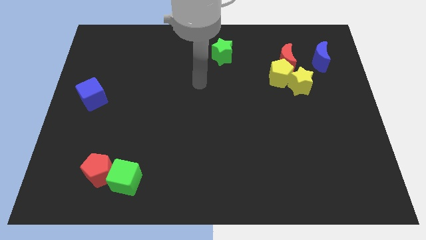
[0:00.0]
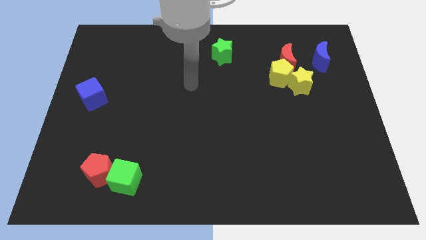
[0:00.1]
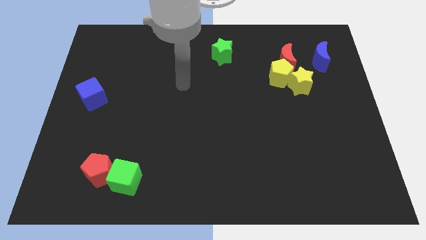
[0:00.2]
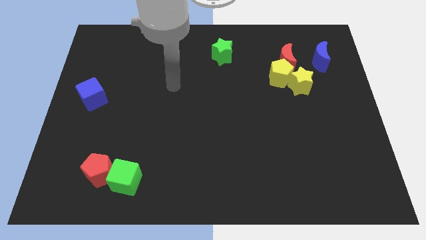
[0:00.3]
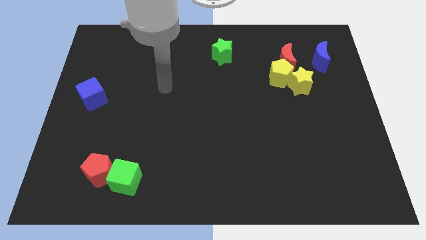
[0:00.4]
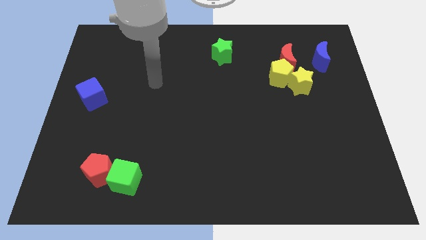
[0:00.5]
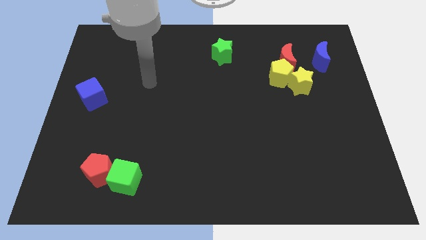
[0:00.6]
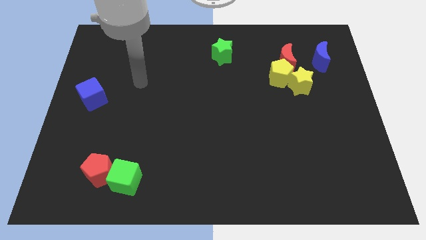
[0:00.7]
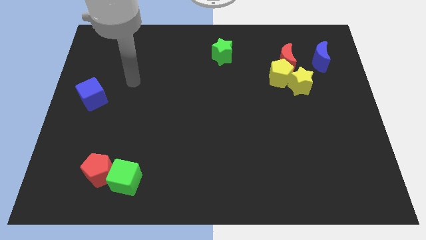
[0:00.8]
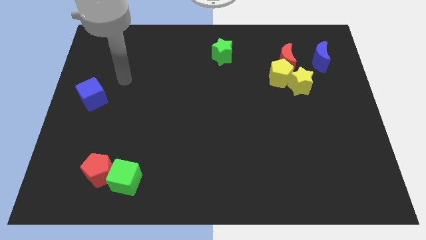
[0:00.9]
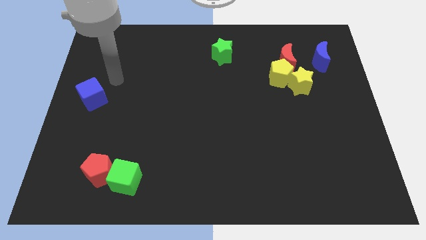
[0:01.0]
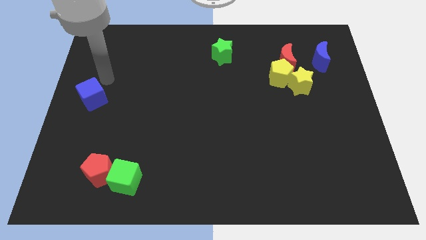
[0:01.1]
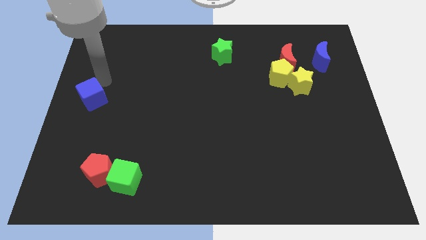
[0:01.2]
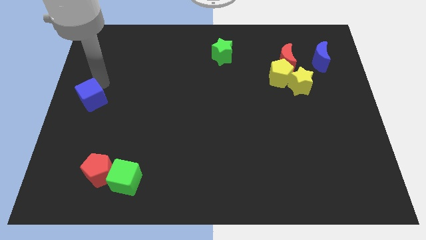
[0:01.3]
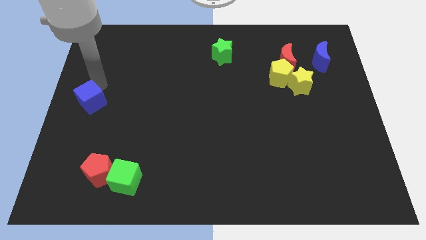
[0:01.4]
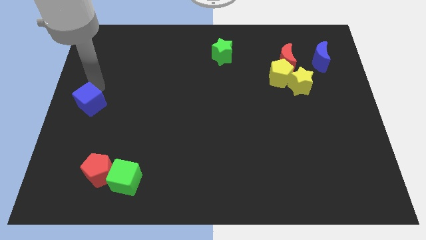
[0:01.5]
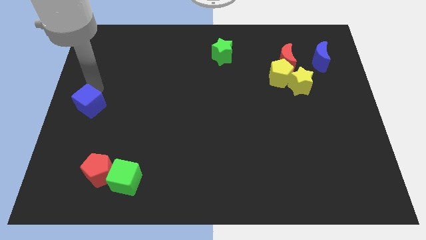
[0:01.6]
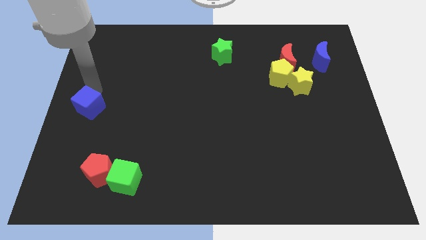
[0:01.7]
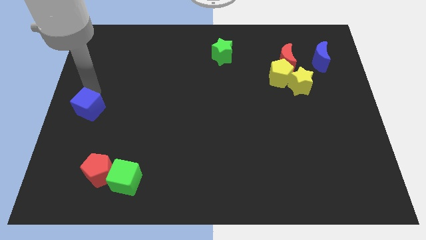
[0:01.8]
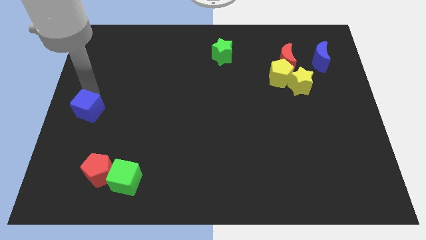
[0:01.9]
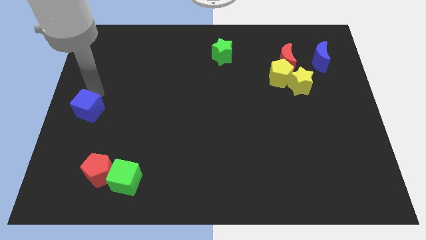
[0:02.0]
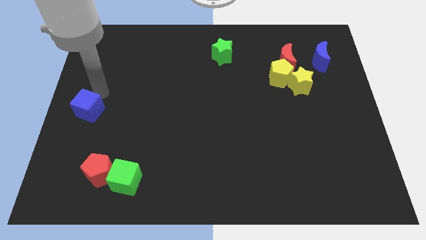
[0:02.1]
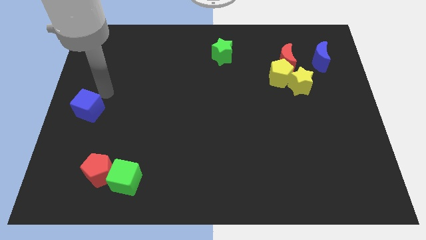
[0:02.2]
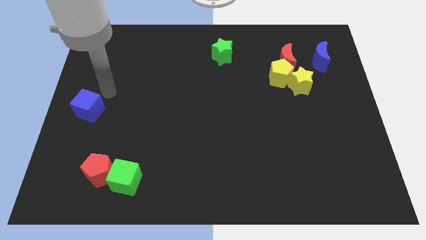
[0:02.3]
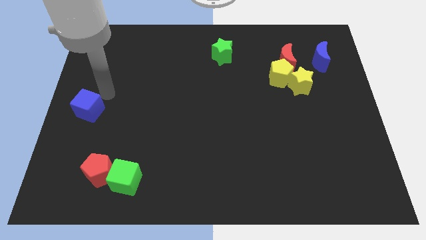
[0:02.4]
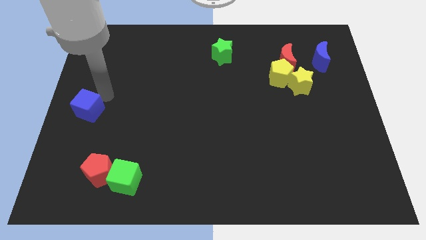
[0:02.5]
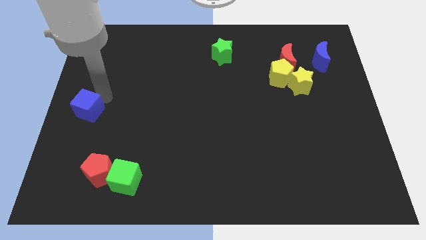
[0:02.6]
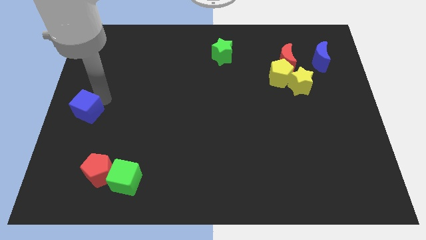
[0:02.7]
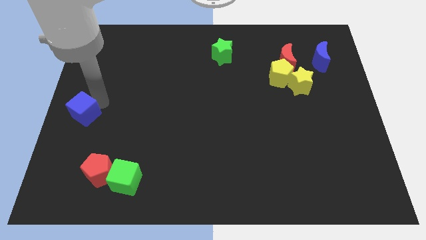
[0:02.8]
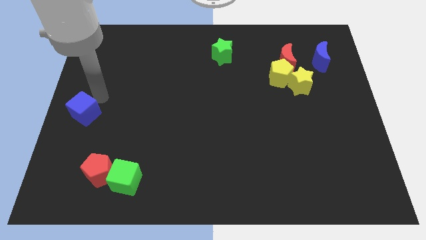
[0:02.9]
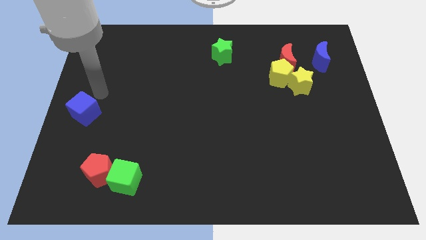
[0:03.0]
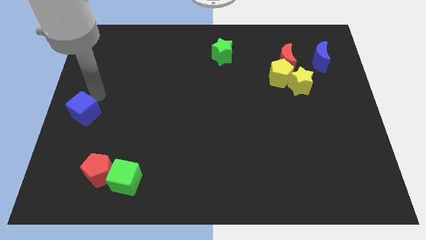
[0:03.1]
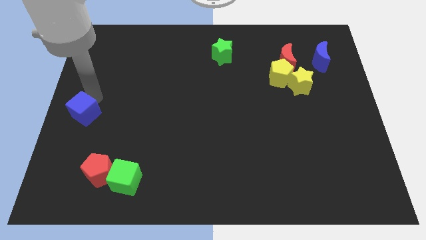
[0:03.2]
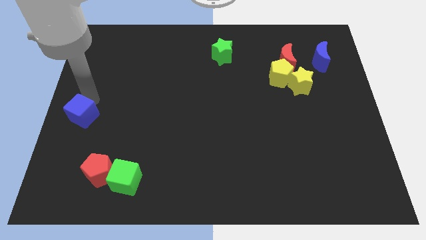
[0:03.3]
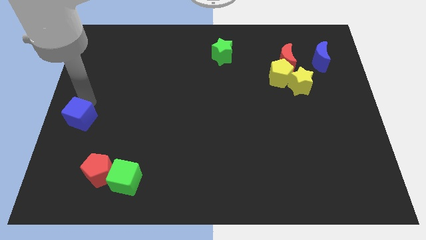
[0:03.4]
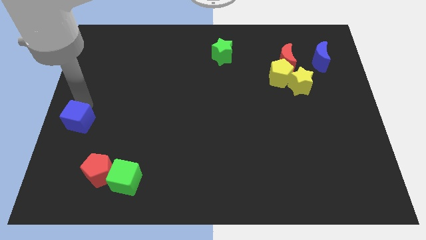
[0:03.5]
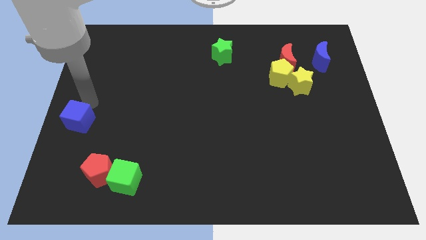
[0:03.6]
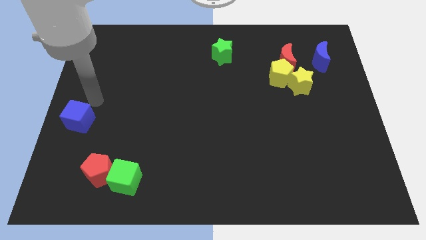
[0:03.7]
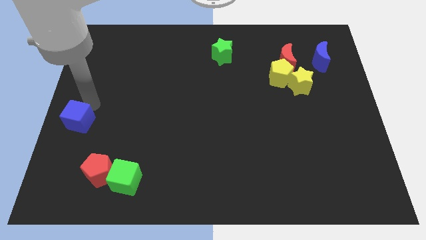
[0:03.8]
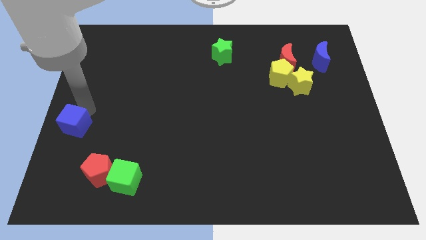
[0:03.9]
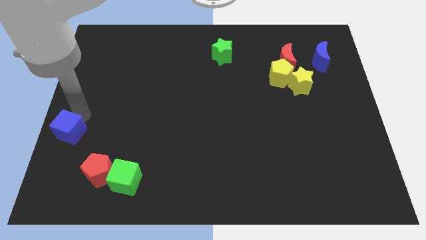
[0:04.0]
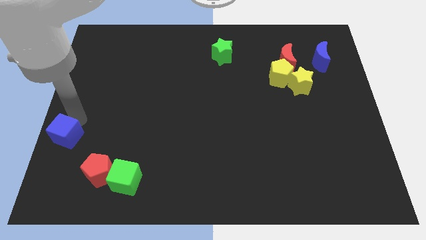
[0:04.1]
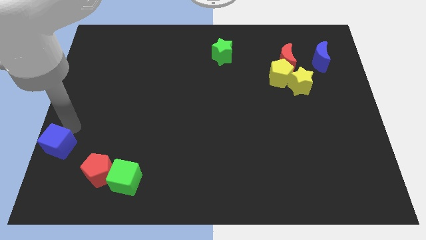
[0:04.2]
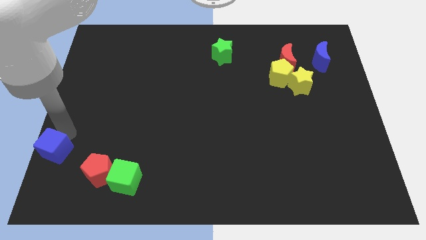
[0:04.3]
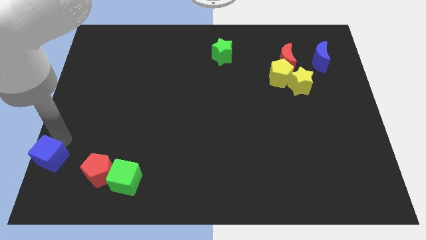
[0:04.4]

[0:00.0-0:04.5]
slide the blue cube to the lower left corner

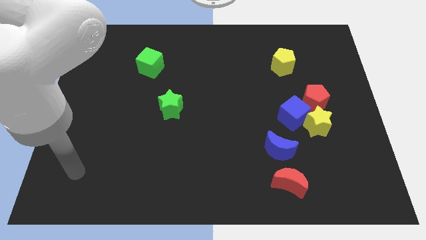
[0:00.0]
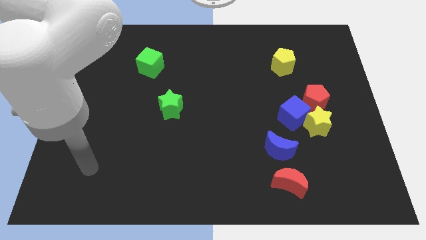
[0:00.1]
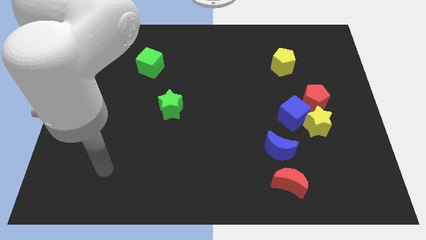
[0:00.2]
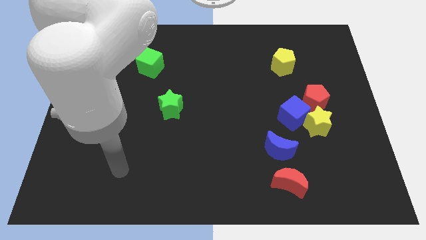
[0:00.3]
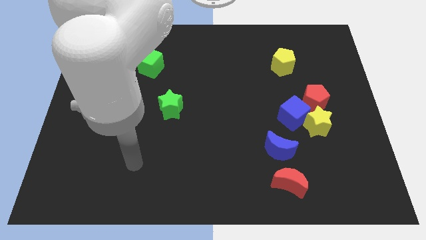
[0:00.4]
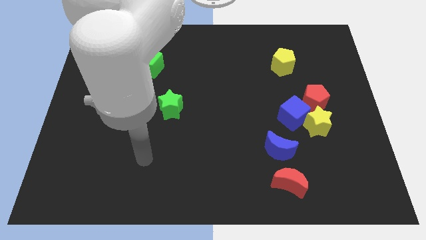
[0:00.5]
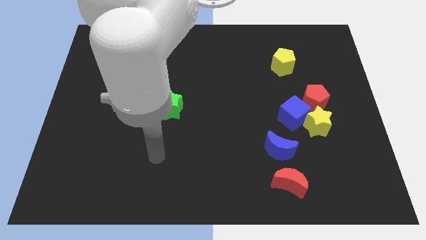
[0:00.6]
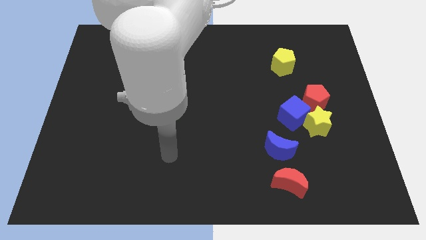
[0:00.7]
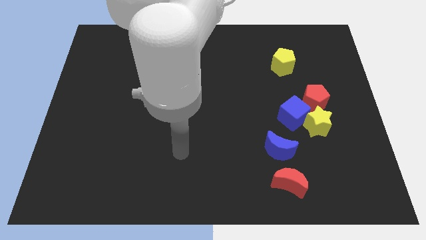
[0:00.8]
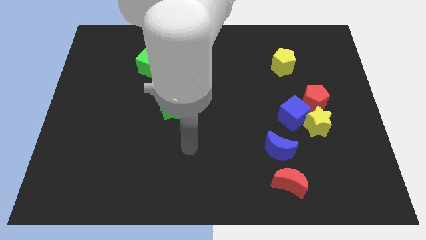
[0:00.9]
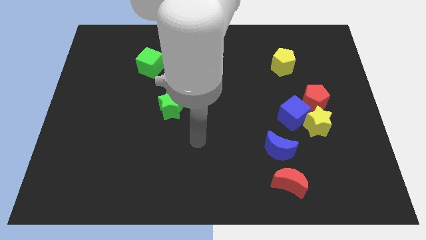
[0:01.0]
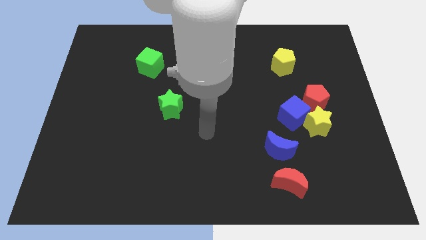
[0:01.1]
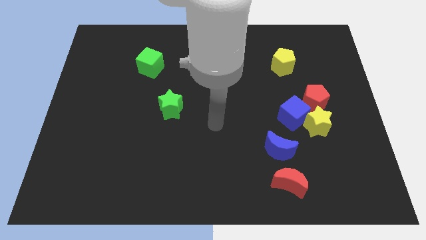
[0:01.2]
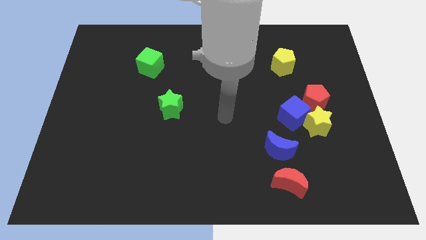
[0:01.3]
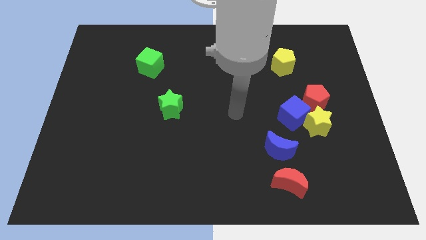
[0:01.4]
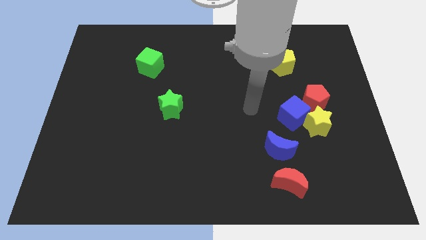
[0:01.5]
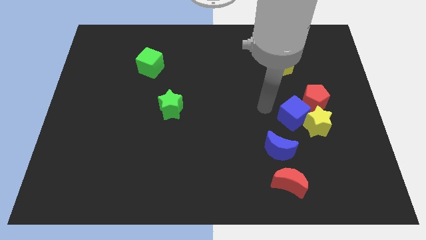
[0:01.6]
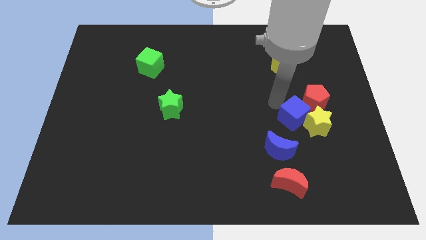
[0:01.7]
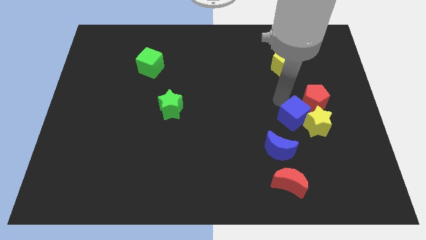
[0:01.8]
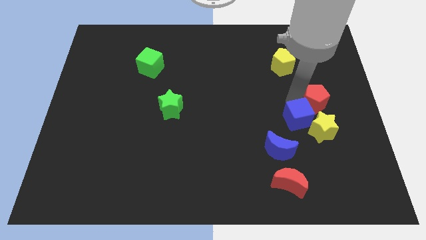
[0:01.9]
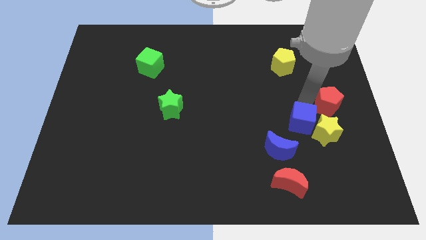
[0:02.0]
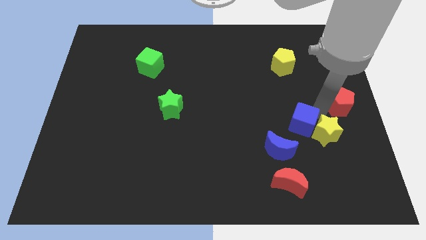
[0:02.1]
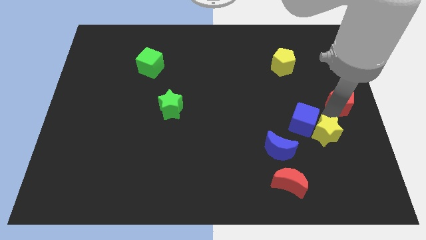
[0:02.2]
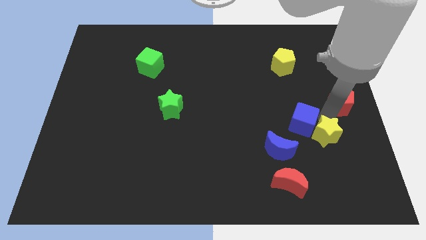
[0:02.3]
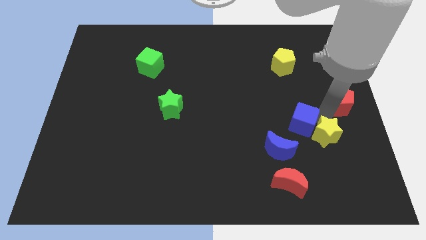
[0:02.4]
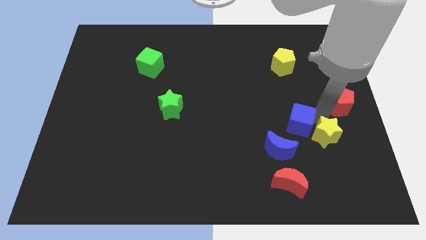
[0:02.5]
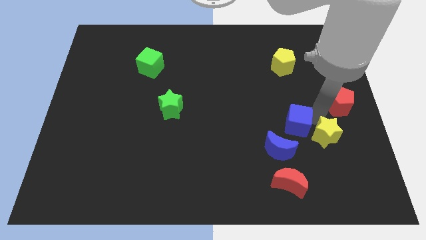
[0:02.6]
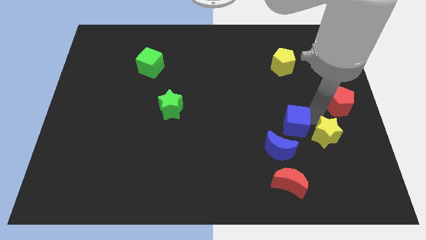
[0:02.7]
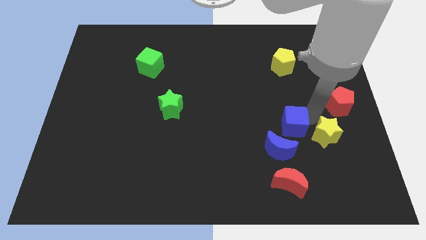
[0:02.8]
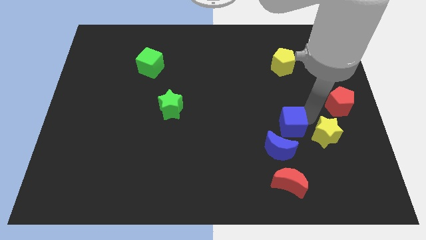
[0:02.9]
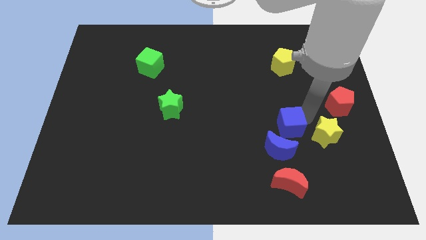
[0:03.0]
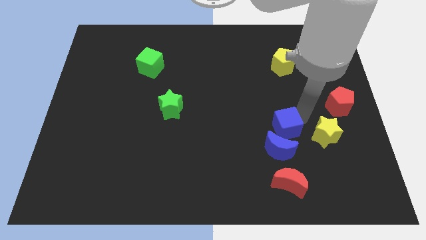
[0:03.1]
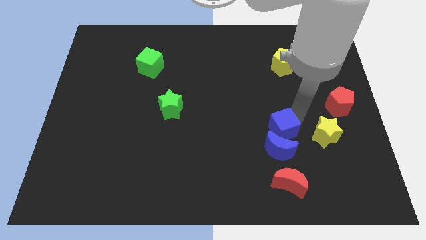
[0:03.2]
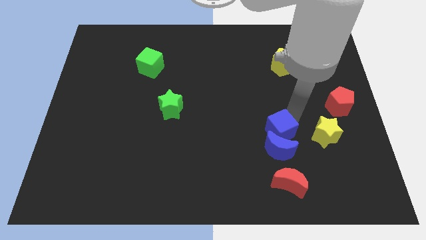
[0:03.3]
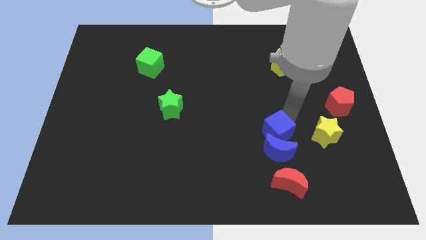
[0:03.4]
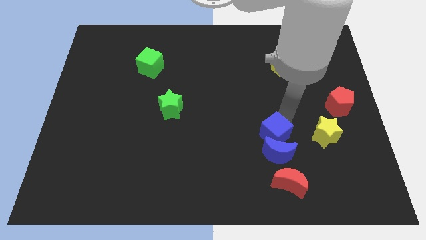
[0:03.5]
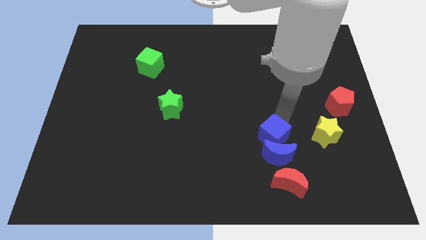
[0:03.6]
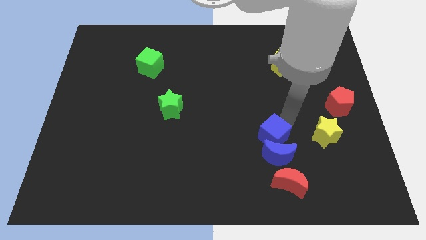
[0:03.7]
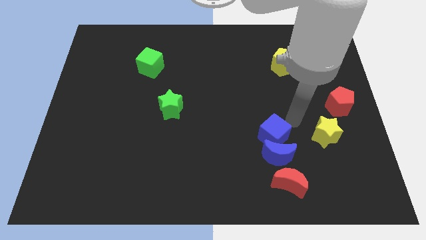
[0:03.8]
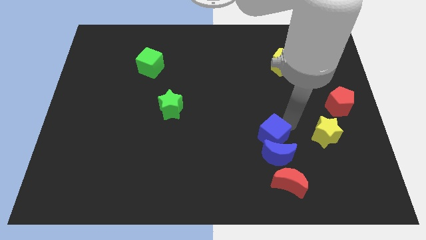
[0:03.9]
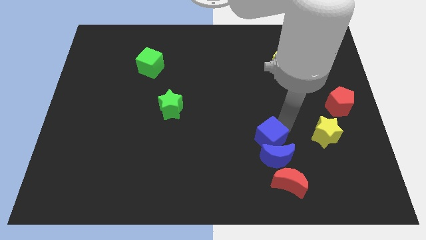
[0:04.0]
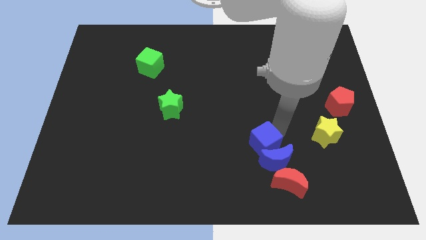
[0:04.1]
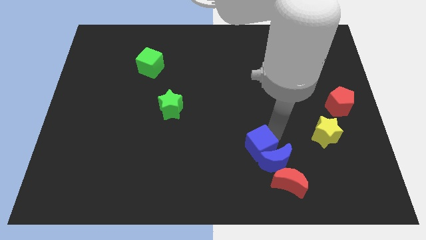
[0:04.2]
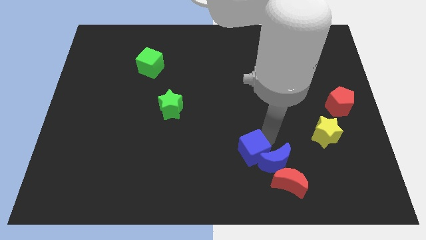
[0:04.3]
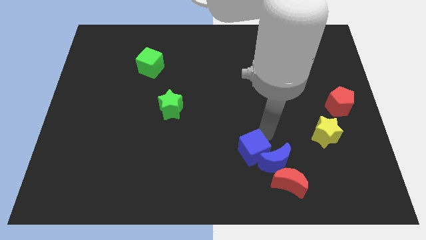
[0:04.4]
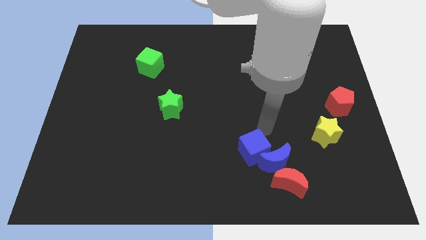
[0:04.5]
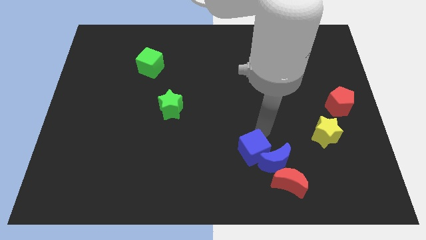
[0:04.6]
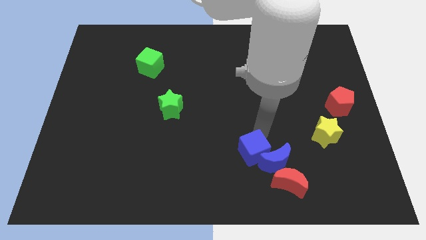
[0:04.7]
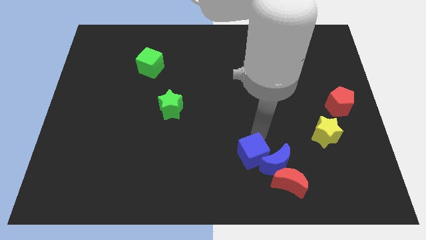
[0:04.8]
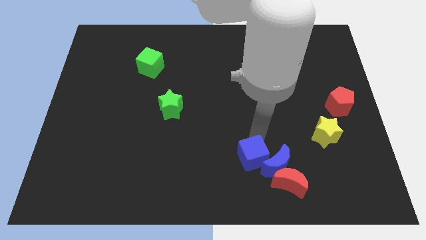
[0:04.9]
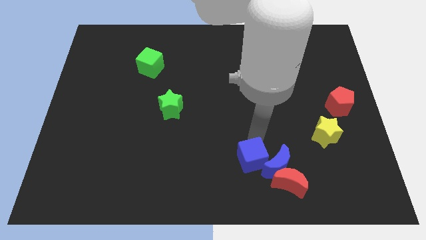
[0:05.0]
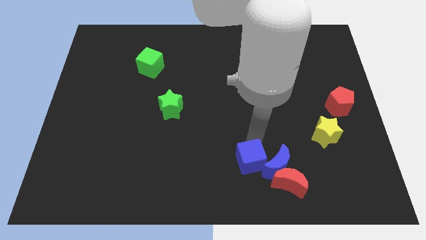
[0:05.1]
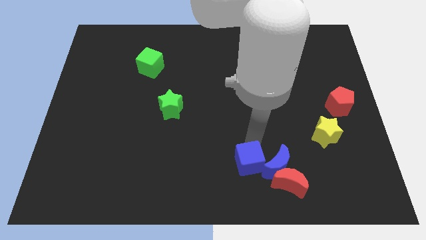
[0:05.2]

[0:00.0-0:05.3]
put the blue cube to the bottom
